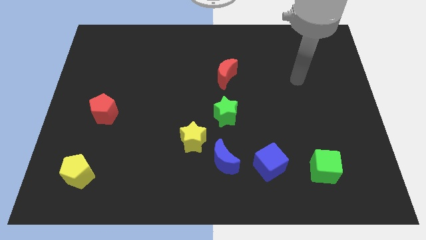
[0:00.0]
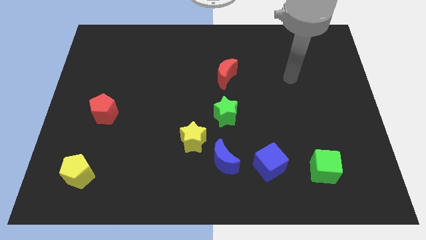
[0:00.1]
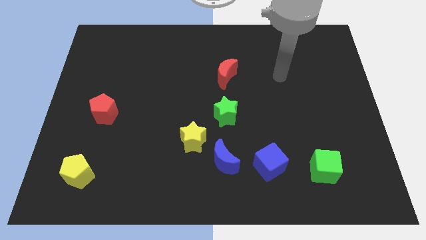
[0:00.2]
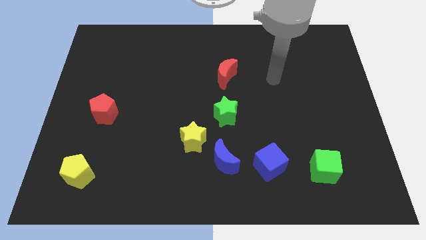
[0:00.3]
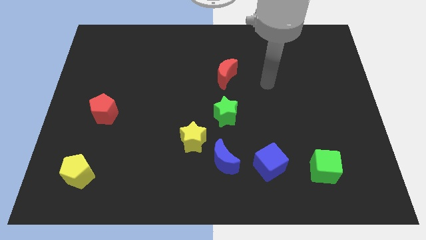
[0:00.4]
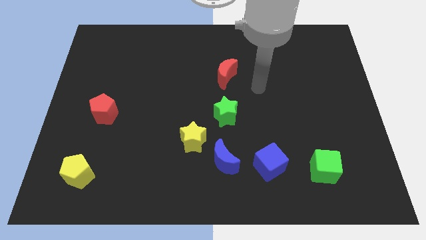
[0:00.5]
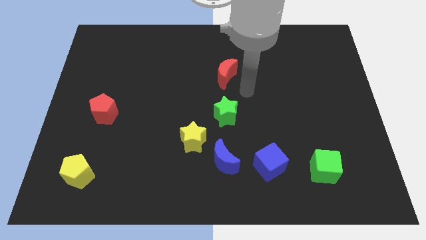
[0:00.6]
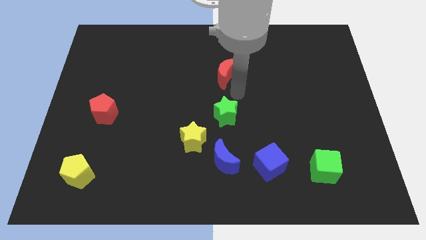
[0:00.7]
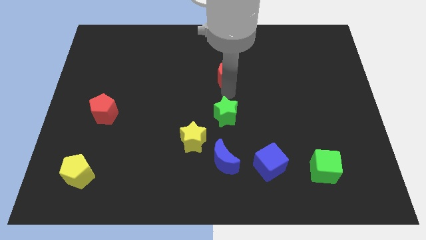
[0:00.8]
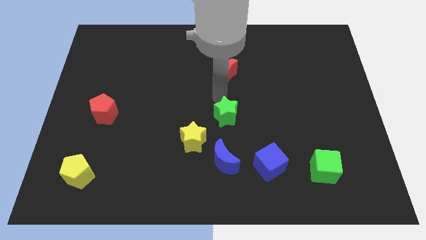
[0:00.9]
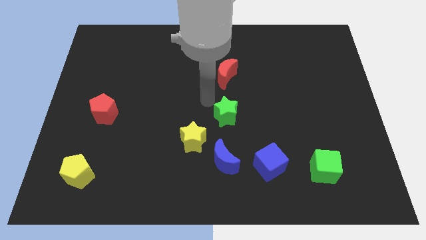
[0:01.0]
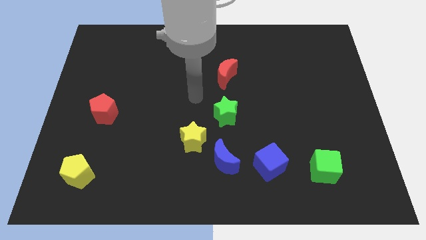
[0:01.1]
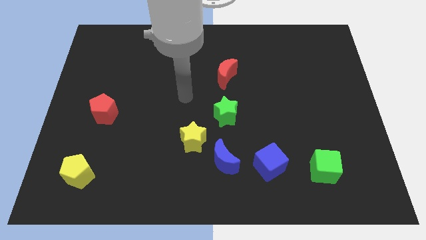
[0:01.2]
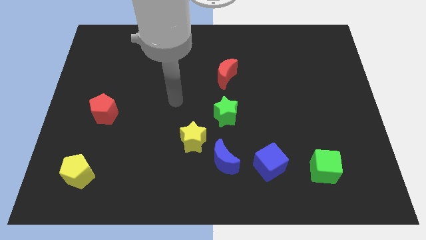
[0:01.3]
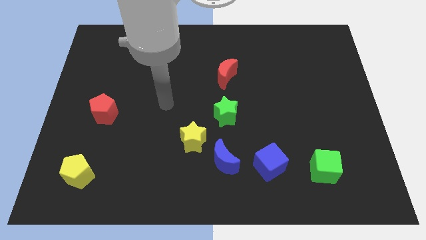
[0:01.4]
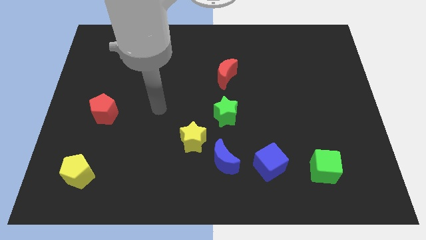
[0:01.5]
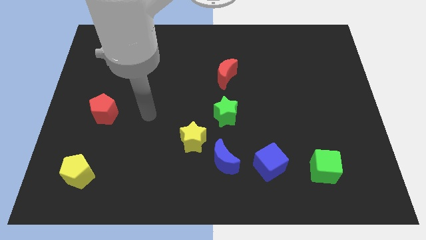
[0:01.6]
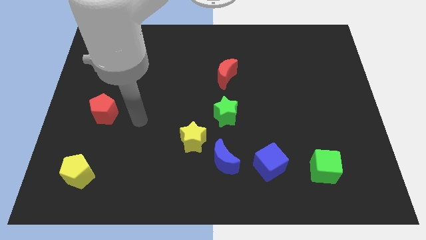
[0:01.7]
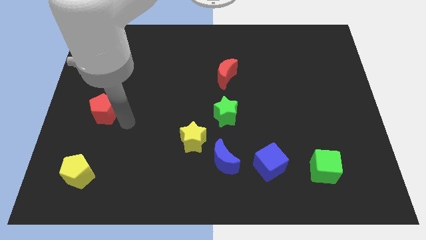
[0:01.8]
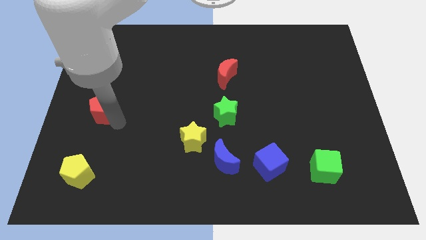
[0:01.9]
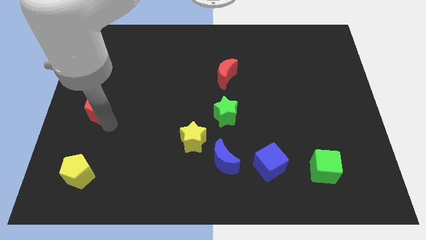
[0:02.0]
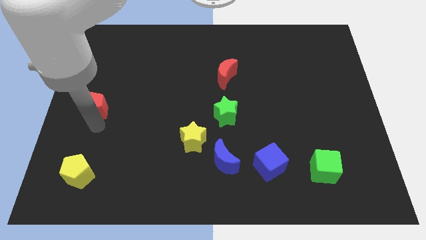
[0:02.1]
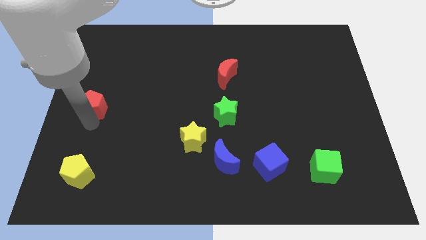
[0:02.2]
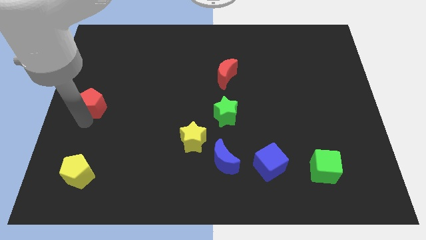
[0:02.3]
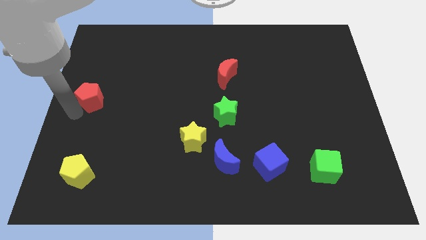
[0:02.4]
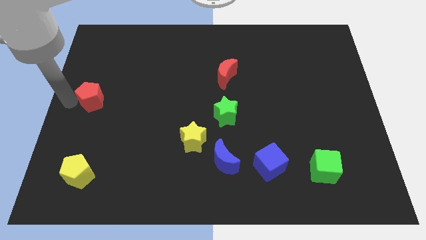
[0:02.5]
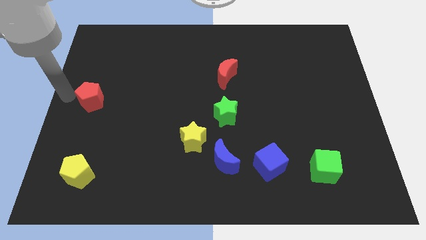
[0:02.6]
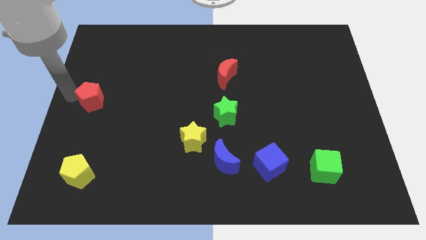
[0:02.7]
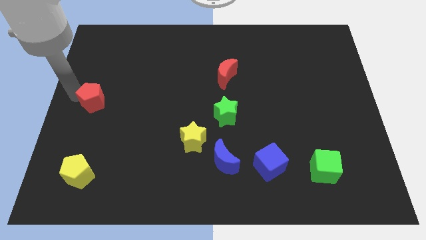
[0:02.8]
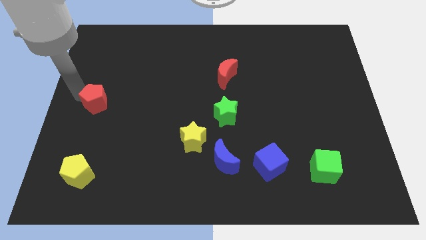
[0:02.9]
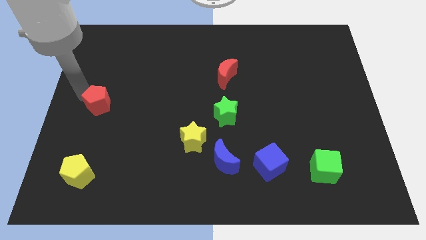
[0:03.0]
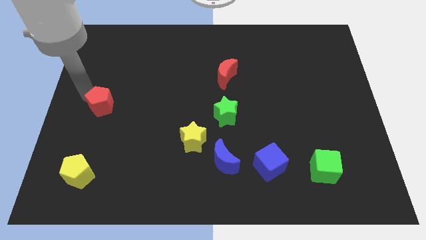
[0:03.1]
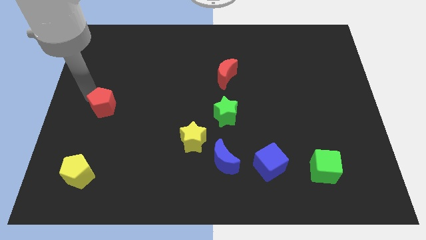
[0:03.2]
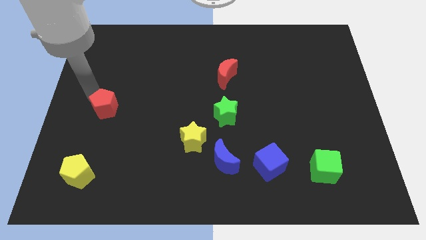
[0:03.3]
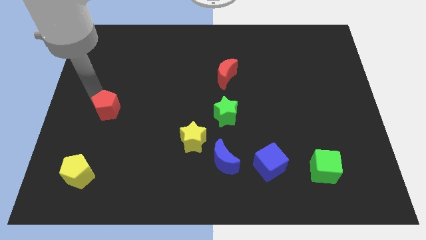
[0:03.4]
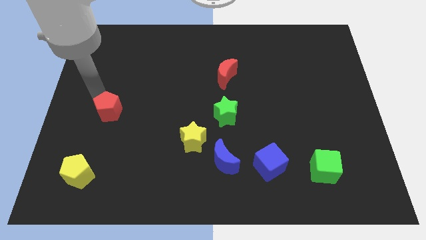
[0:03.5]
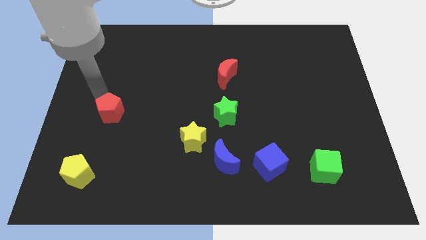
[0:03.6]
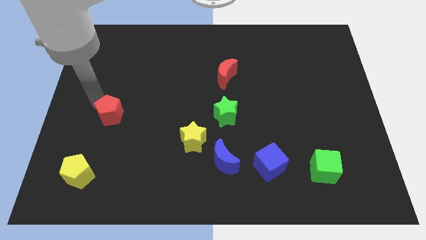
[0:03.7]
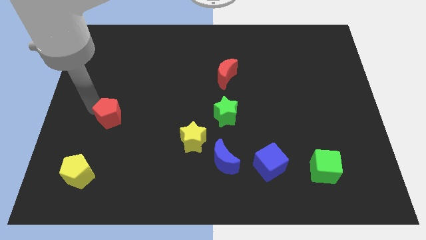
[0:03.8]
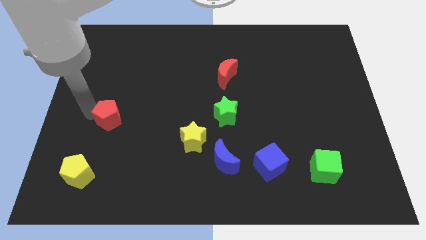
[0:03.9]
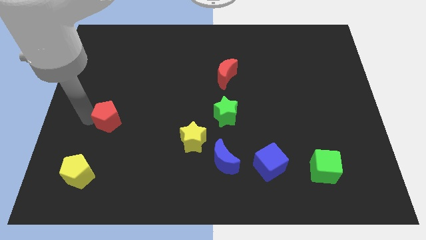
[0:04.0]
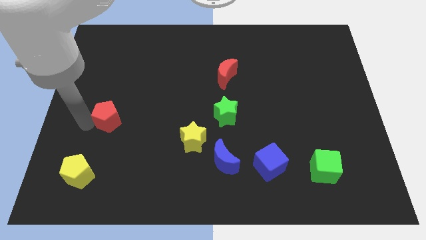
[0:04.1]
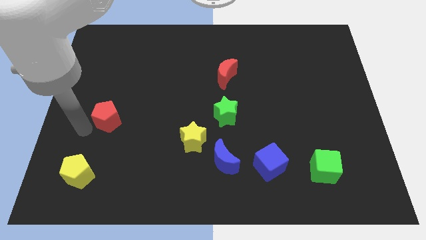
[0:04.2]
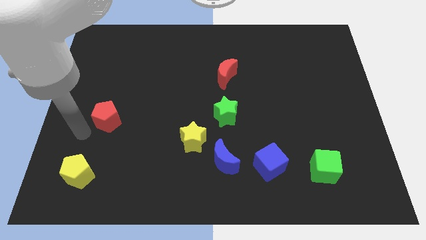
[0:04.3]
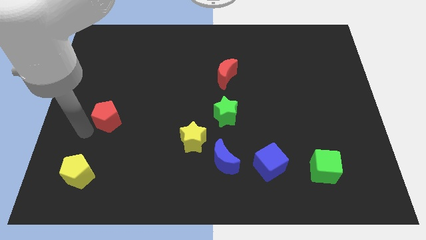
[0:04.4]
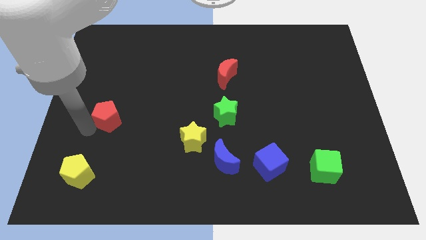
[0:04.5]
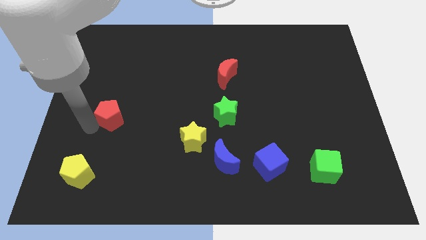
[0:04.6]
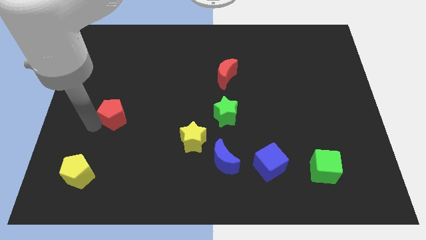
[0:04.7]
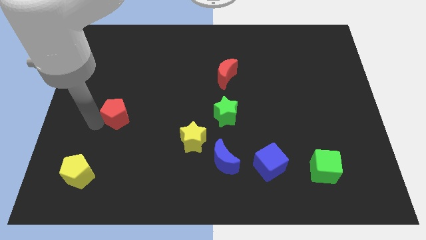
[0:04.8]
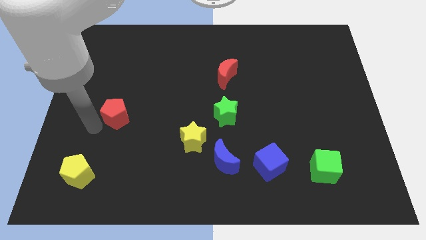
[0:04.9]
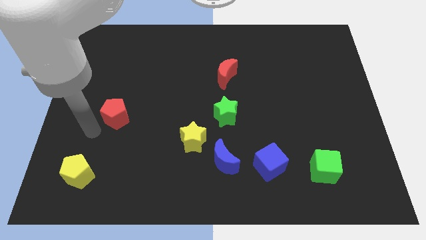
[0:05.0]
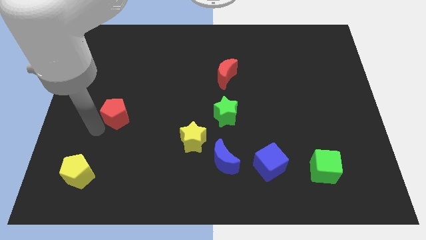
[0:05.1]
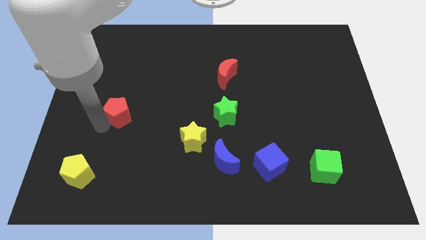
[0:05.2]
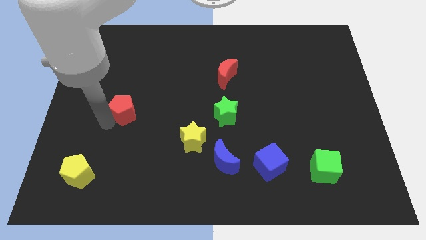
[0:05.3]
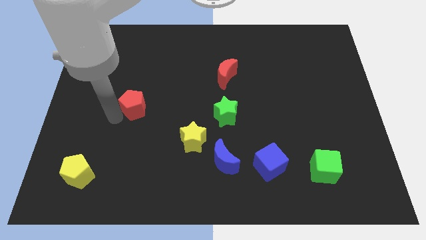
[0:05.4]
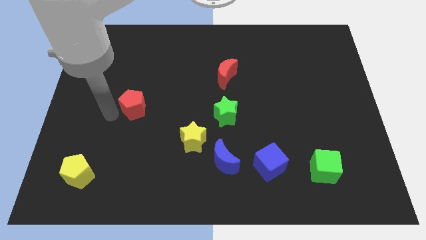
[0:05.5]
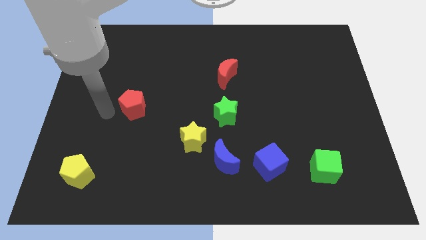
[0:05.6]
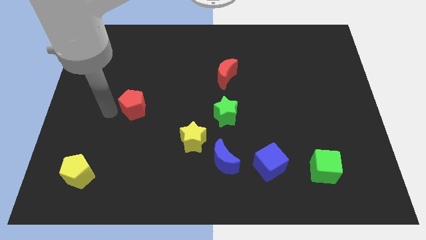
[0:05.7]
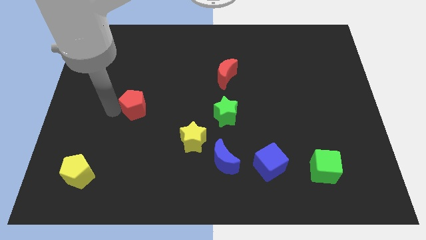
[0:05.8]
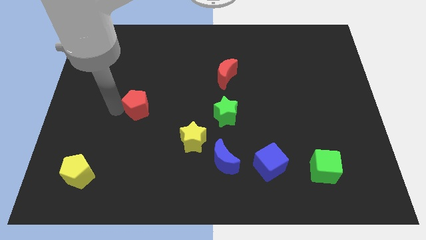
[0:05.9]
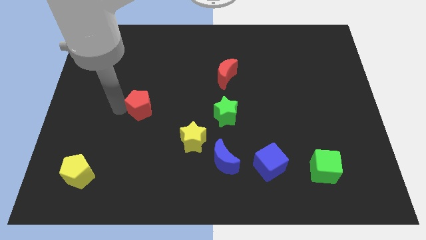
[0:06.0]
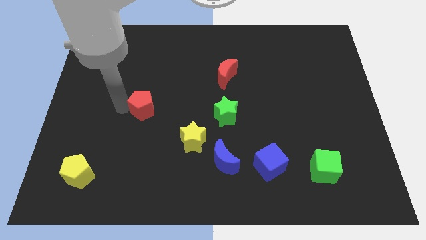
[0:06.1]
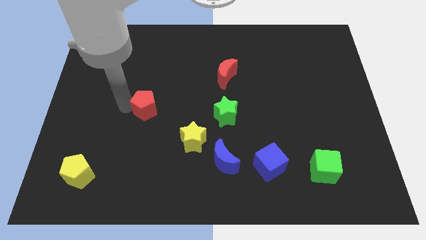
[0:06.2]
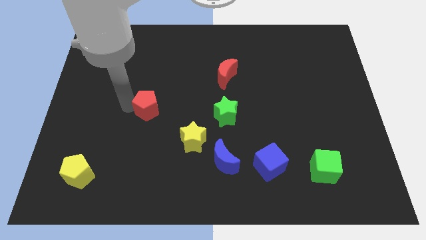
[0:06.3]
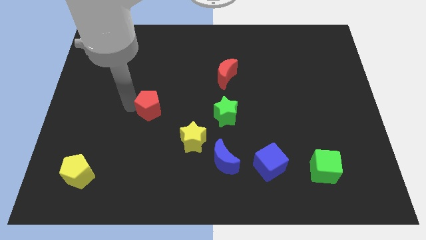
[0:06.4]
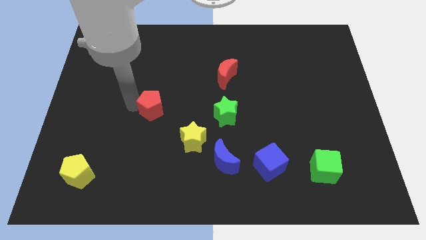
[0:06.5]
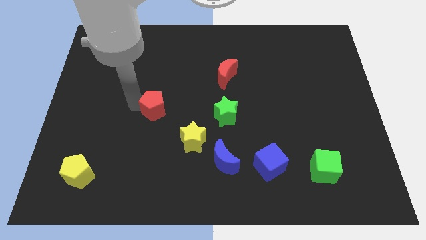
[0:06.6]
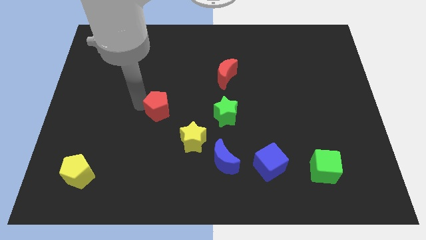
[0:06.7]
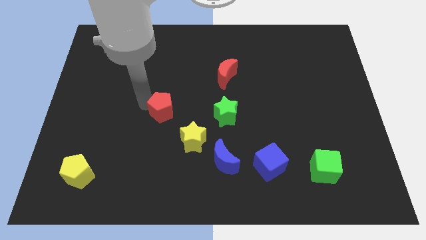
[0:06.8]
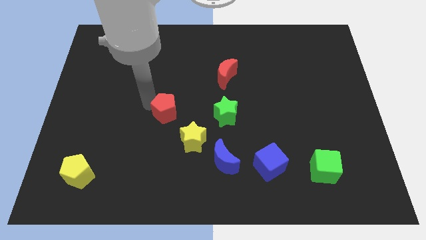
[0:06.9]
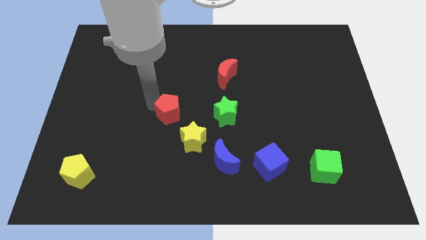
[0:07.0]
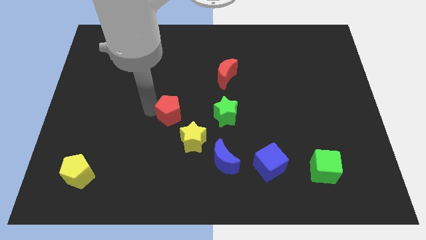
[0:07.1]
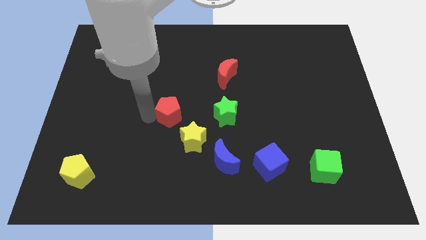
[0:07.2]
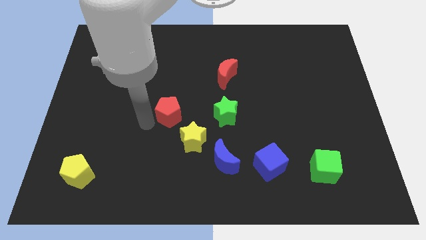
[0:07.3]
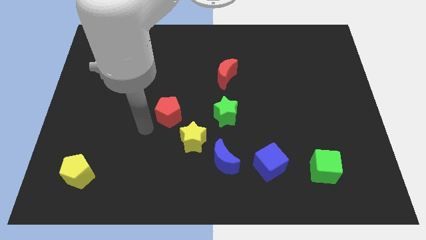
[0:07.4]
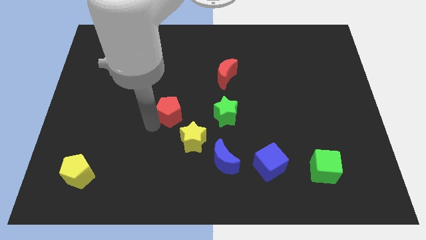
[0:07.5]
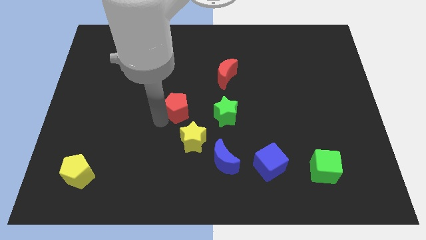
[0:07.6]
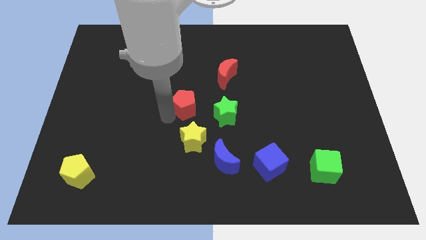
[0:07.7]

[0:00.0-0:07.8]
push the red pentagon to the top left of the green star
